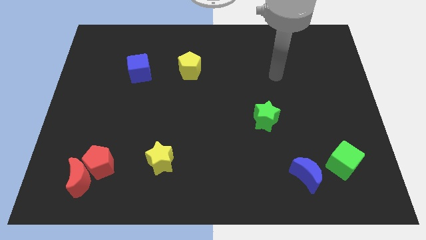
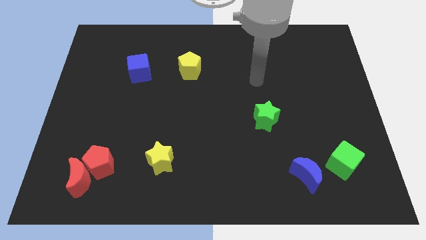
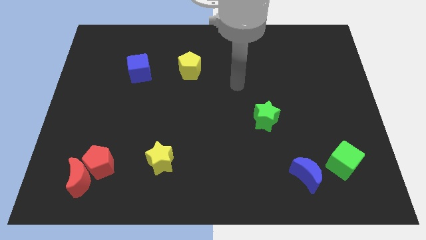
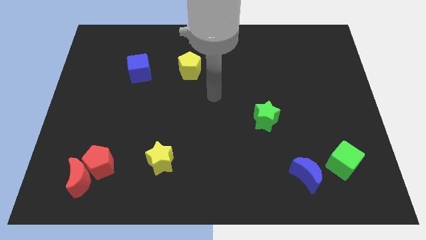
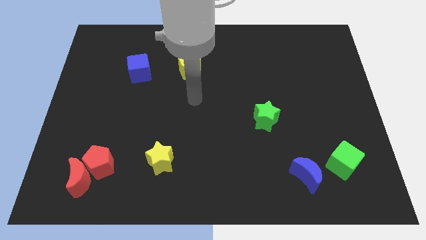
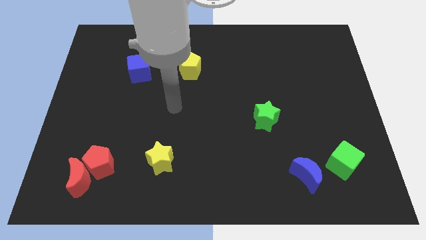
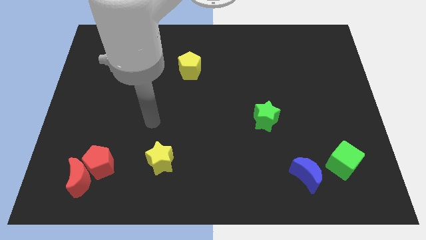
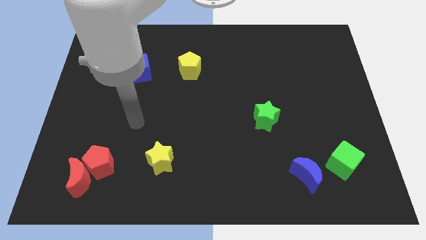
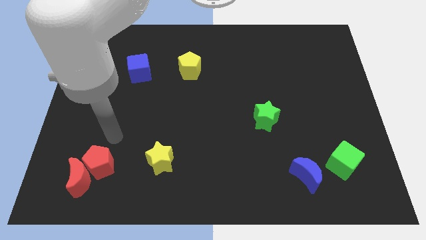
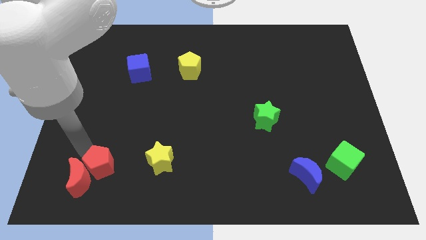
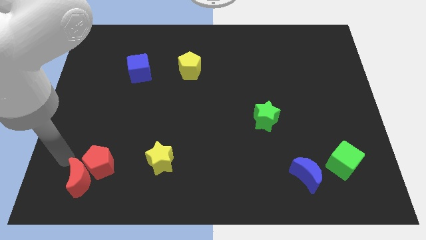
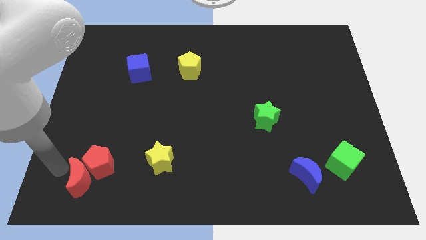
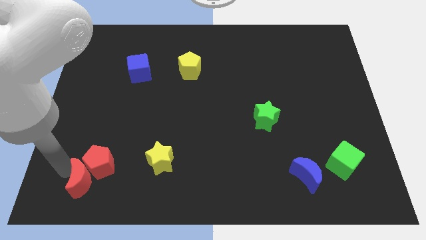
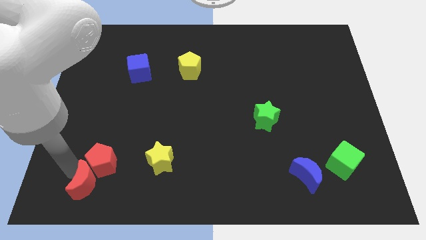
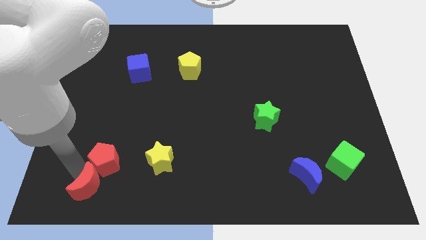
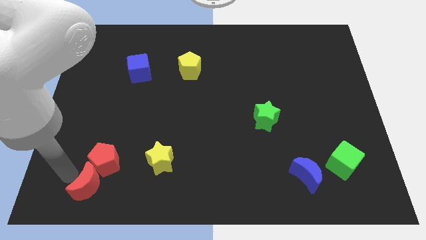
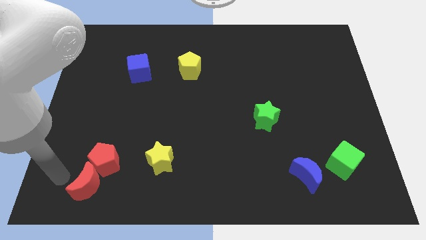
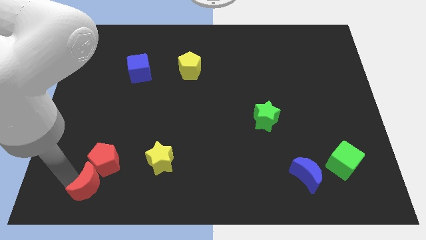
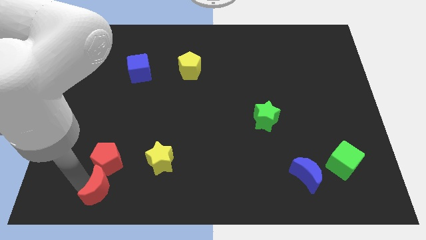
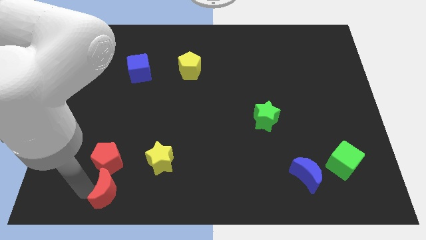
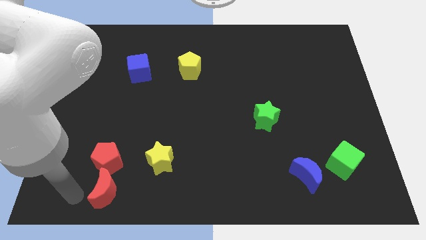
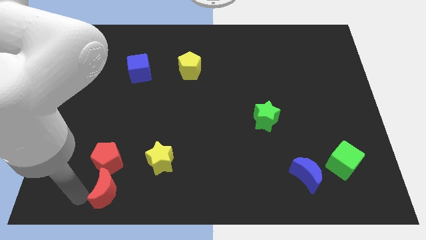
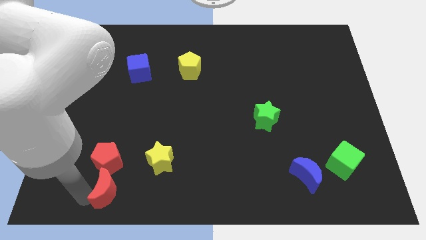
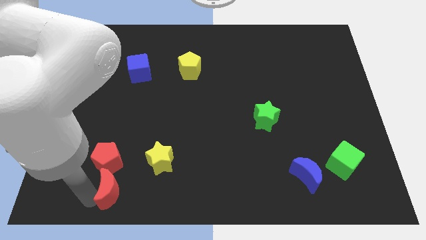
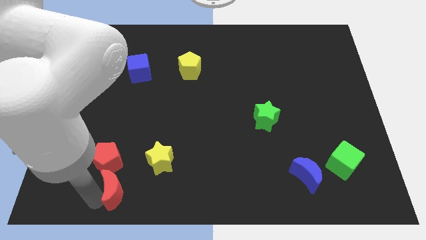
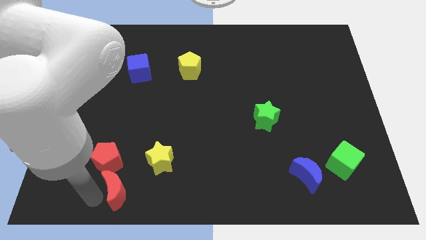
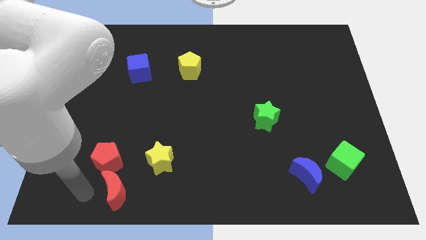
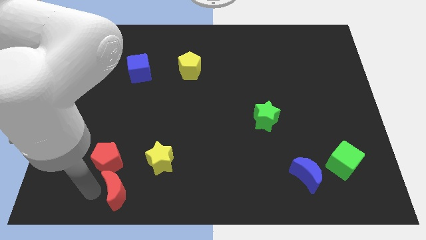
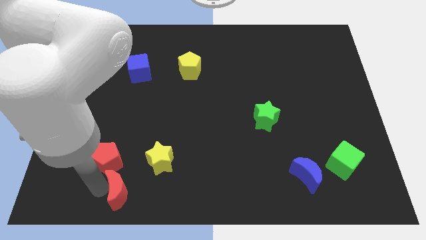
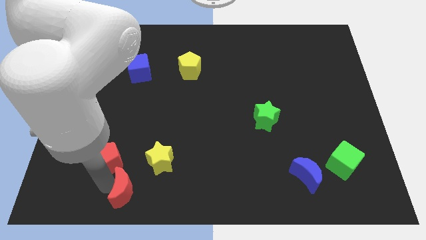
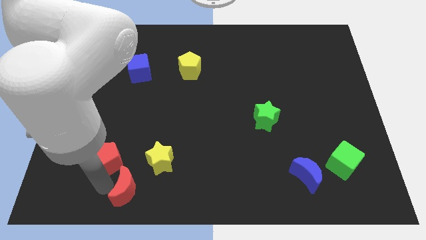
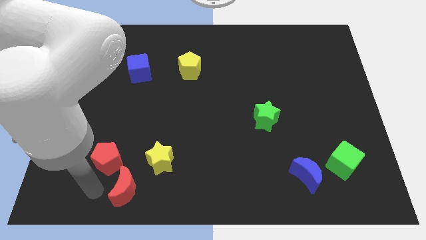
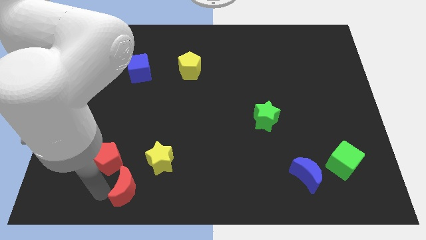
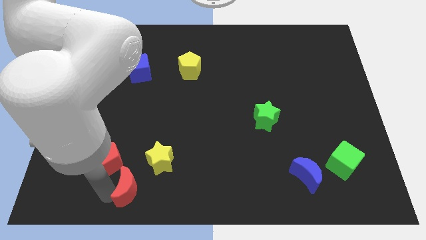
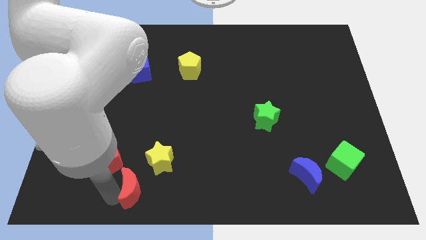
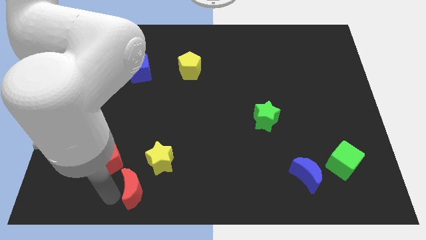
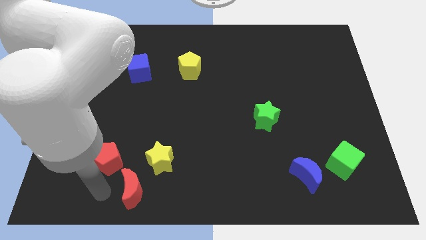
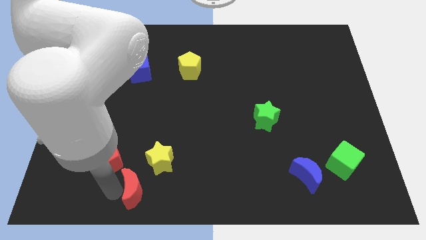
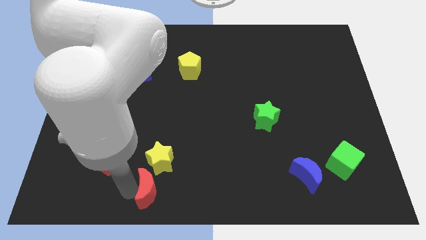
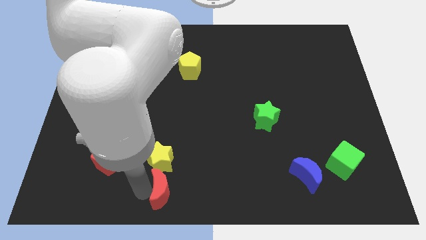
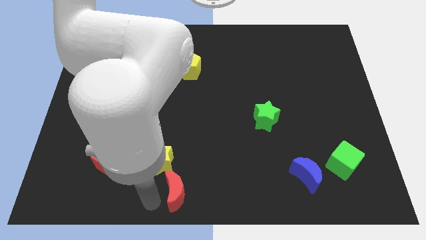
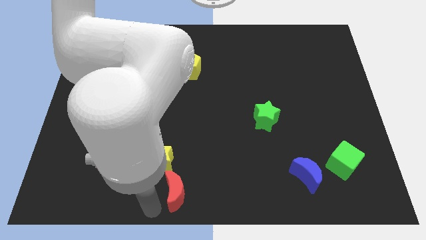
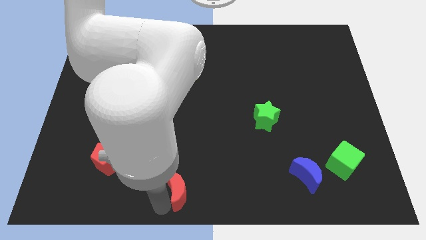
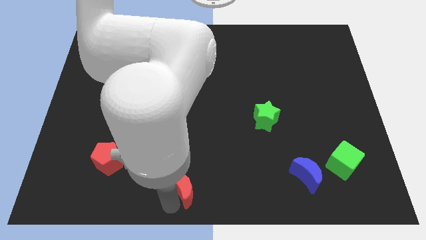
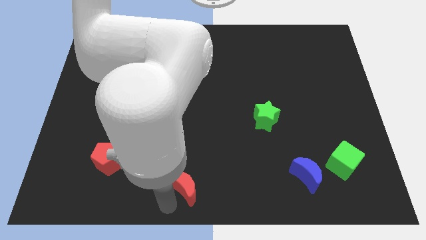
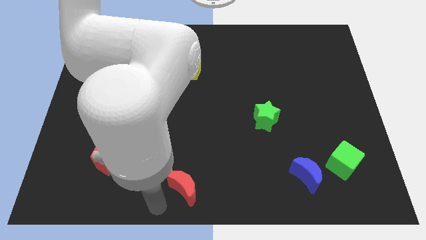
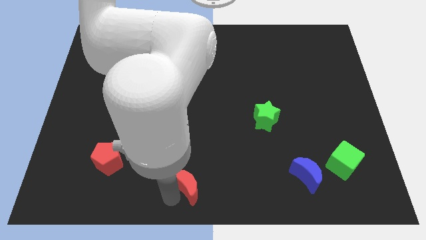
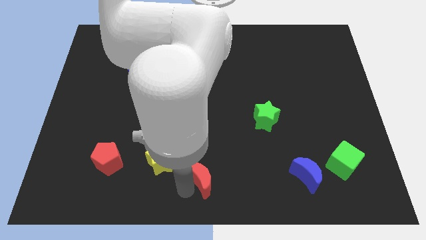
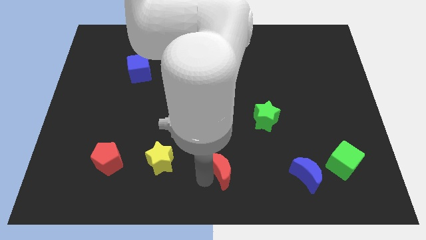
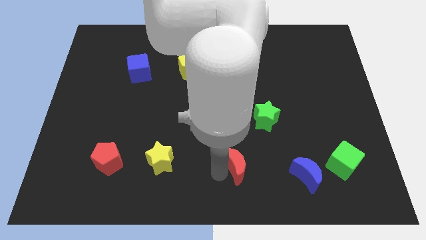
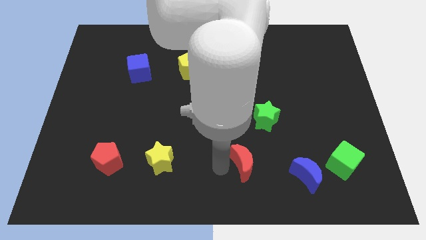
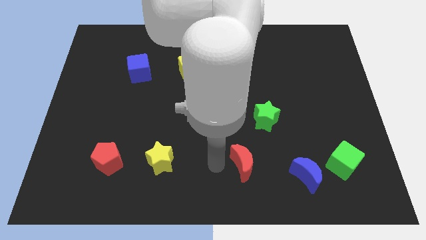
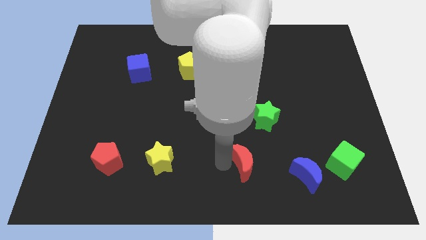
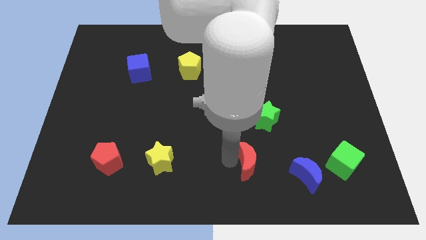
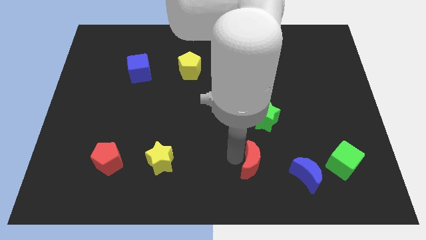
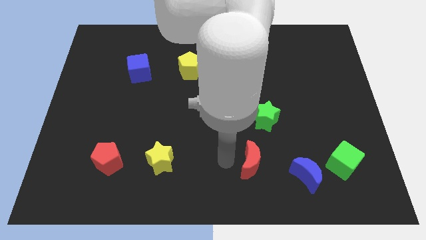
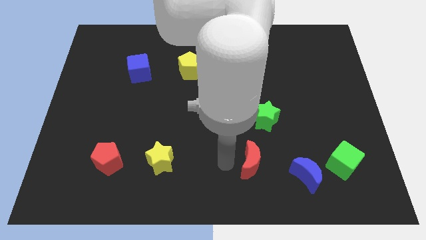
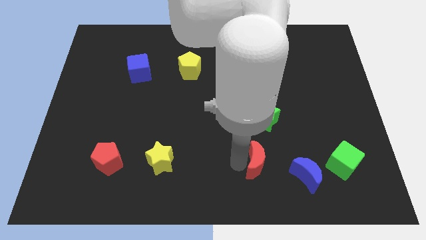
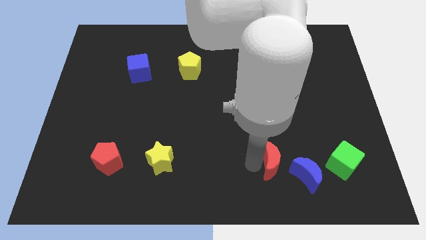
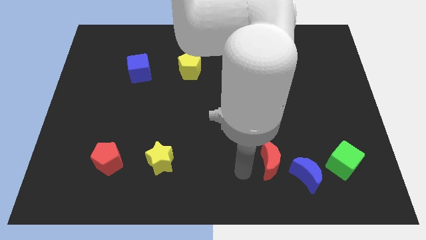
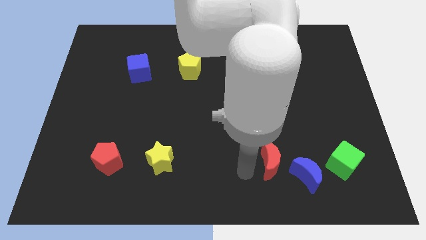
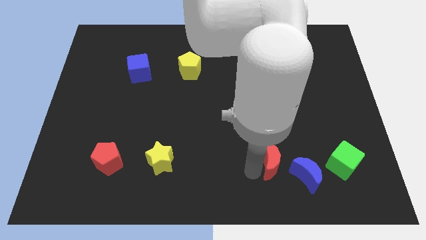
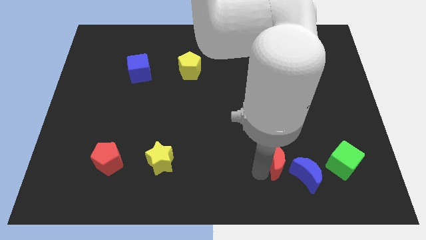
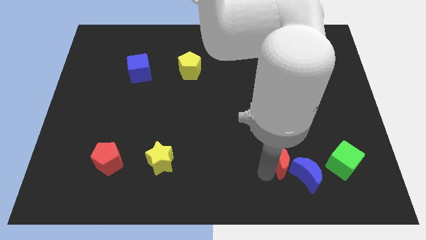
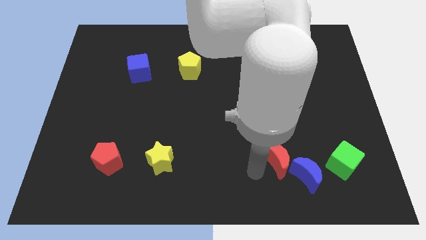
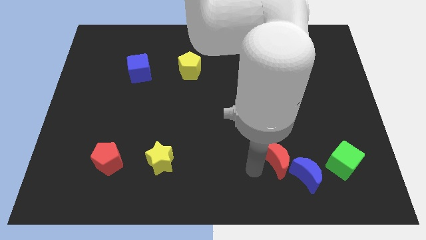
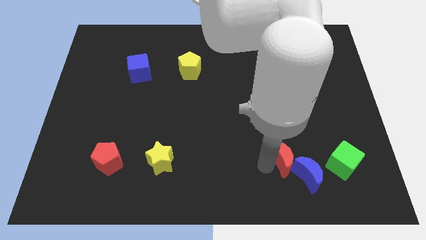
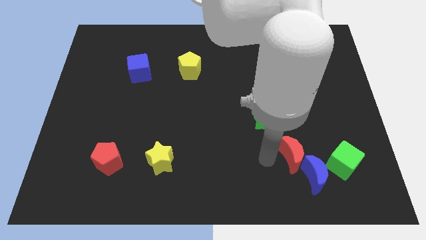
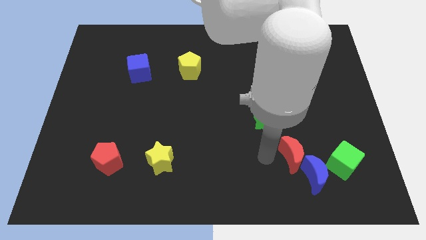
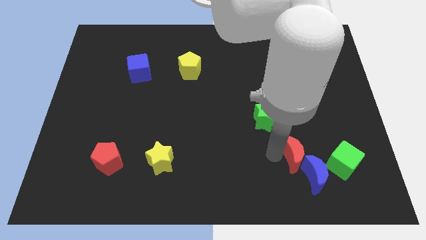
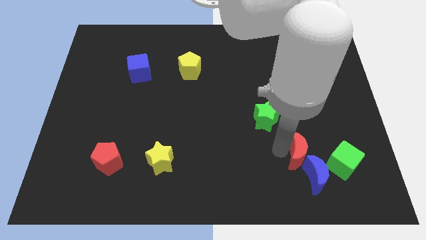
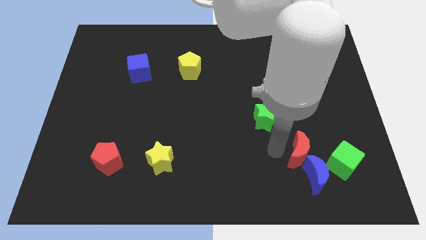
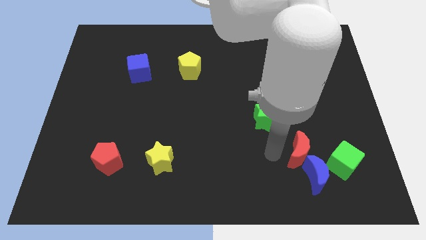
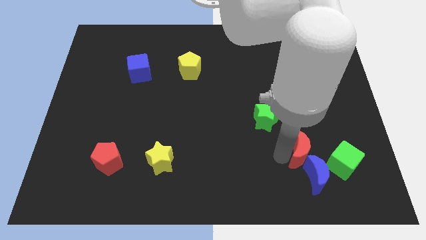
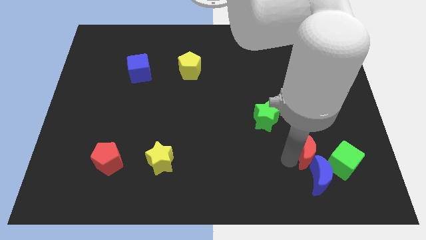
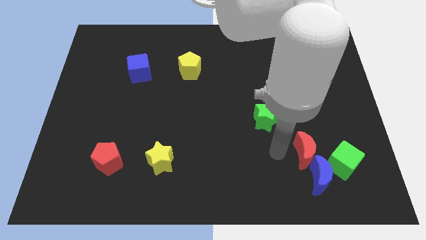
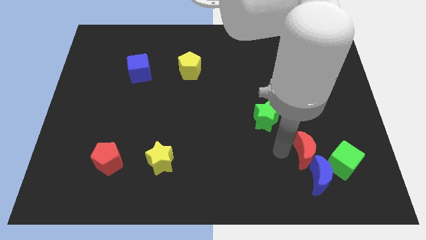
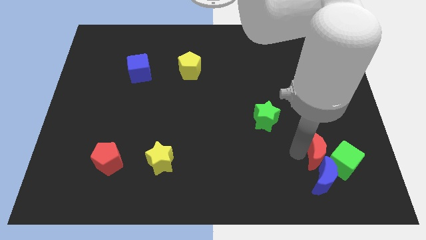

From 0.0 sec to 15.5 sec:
move the red moon to the top right of the blue moon
